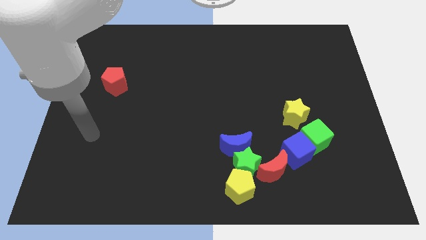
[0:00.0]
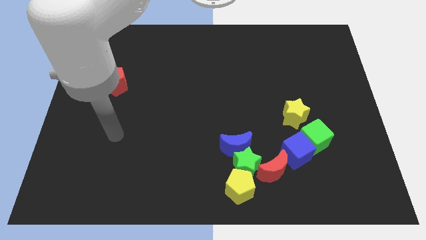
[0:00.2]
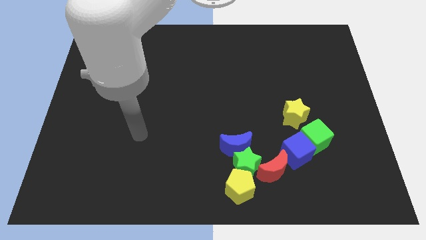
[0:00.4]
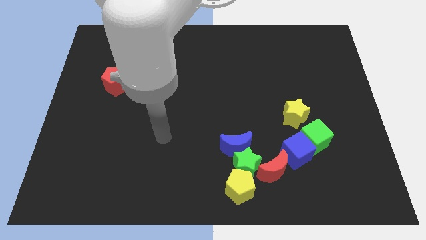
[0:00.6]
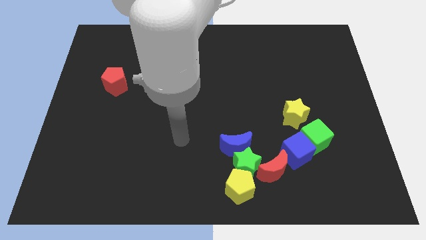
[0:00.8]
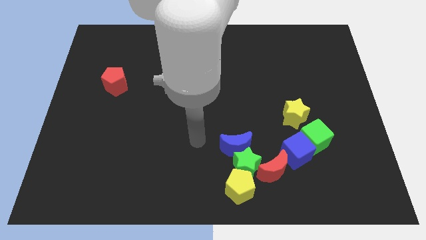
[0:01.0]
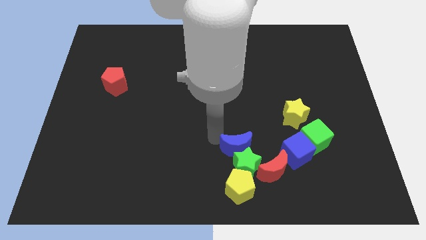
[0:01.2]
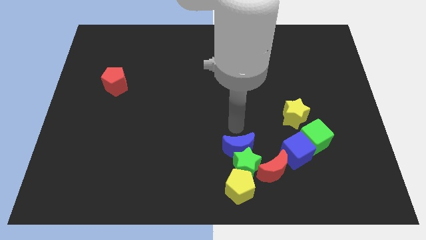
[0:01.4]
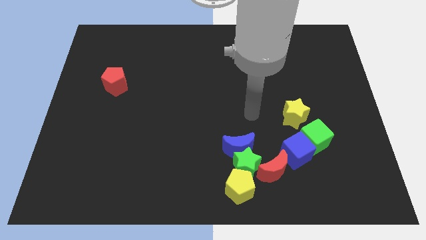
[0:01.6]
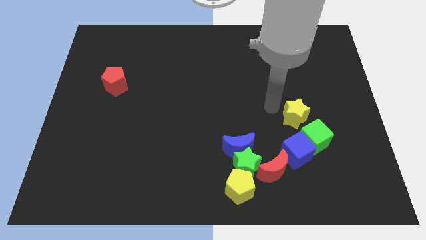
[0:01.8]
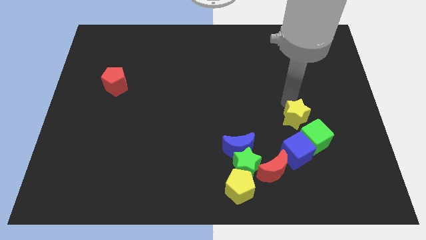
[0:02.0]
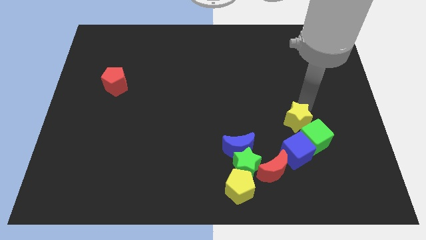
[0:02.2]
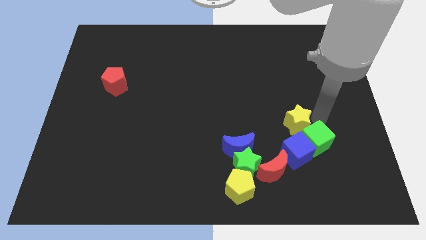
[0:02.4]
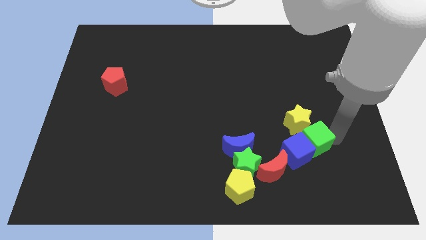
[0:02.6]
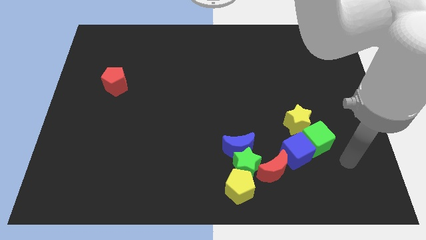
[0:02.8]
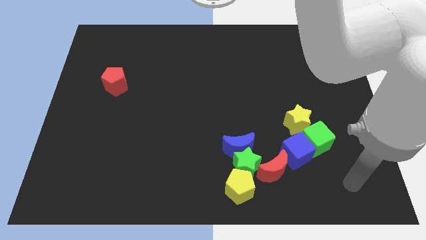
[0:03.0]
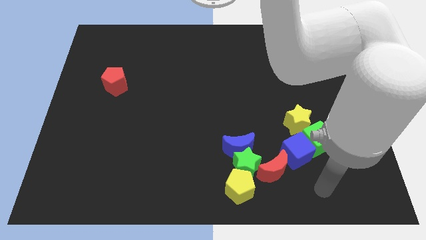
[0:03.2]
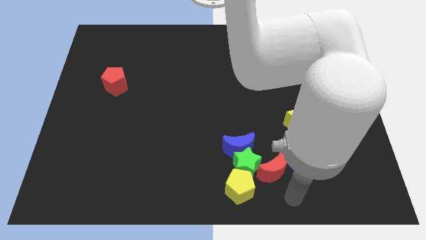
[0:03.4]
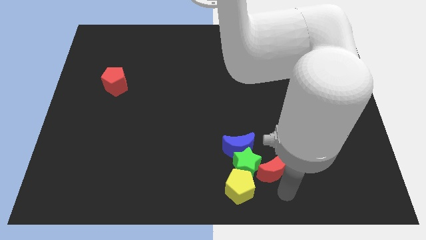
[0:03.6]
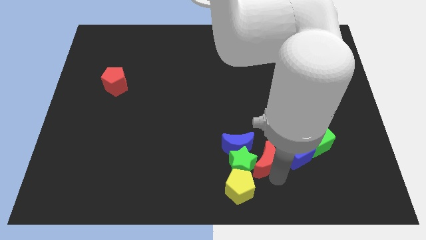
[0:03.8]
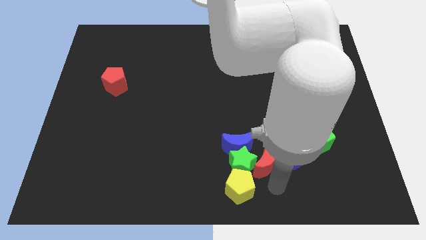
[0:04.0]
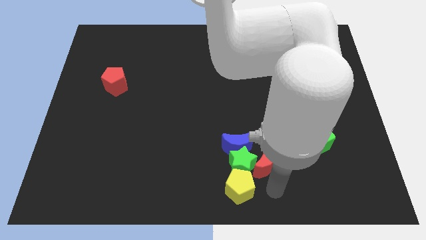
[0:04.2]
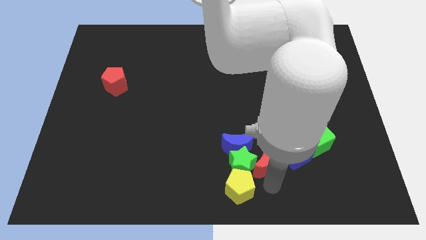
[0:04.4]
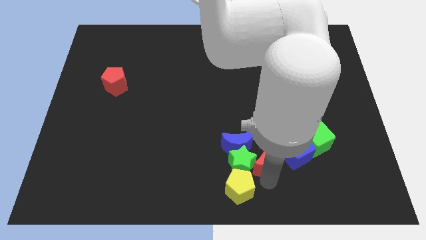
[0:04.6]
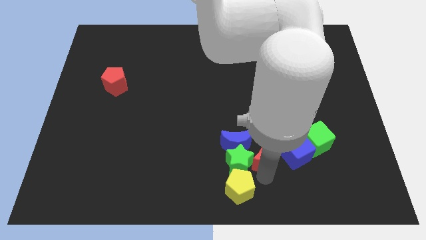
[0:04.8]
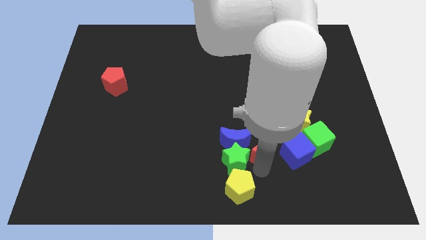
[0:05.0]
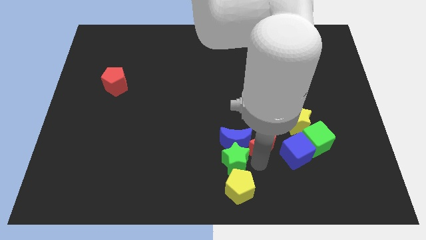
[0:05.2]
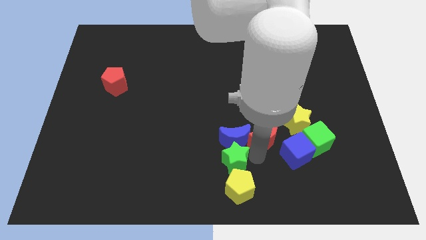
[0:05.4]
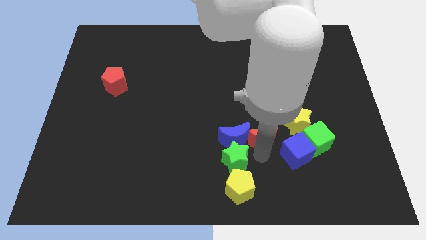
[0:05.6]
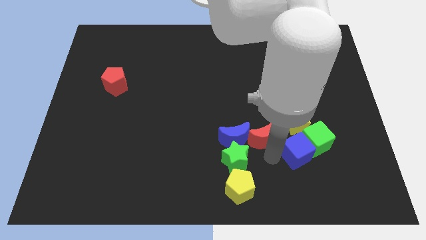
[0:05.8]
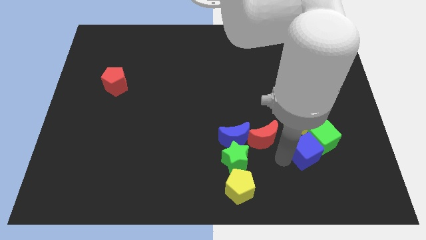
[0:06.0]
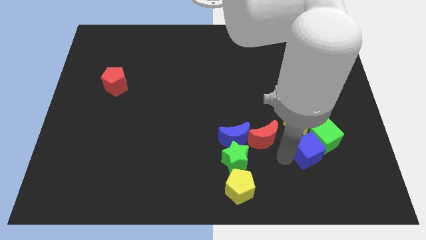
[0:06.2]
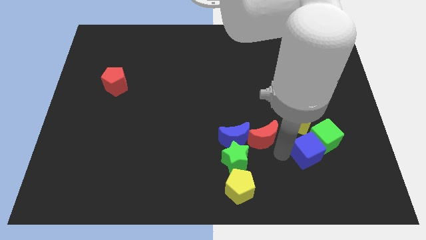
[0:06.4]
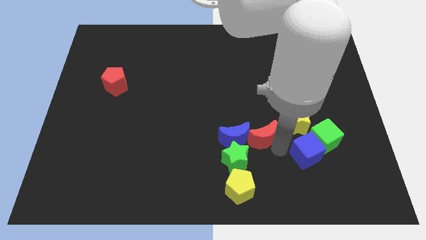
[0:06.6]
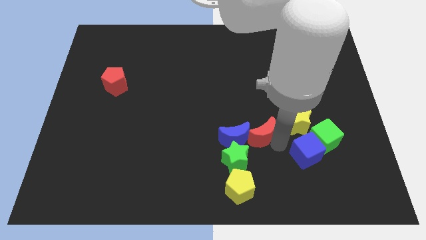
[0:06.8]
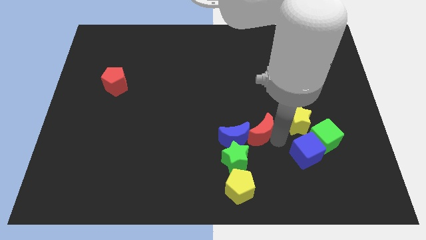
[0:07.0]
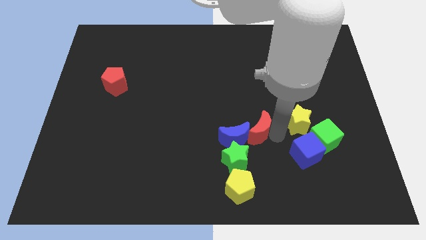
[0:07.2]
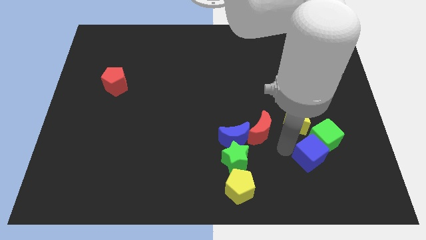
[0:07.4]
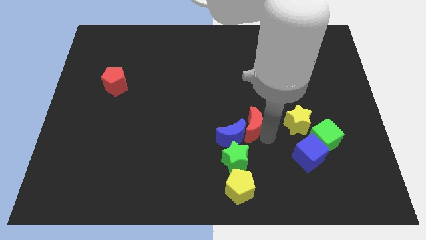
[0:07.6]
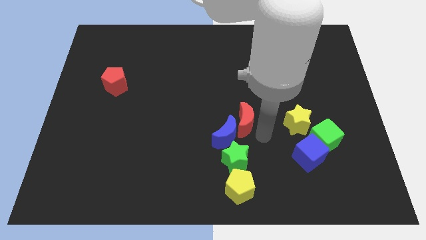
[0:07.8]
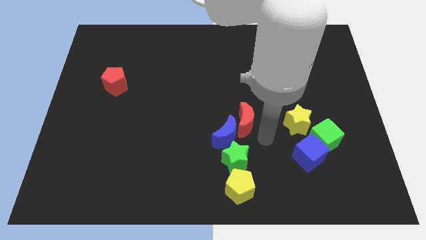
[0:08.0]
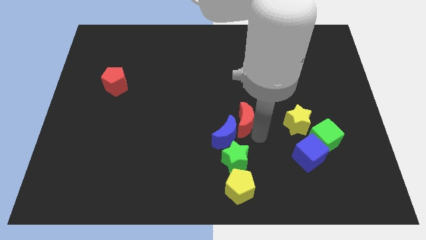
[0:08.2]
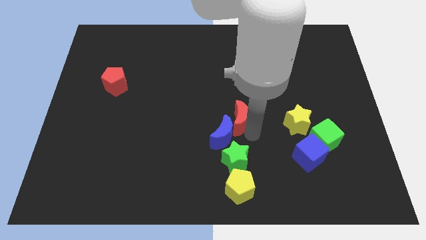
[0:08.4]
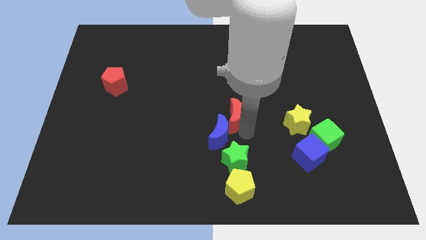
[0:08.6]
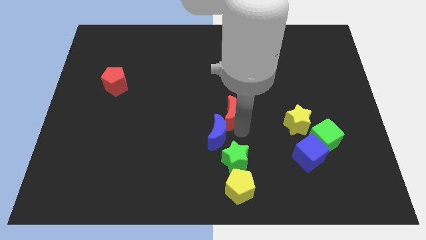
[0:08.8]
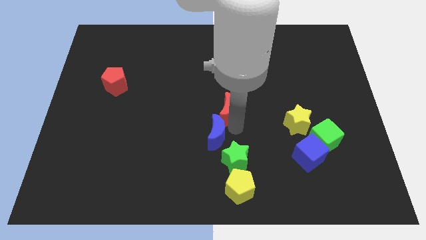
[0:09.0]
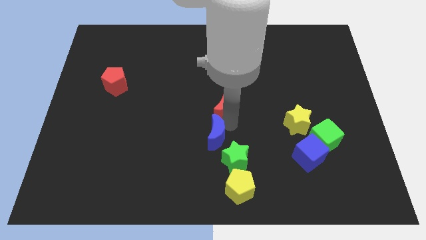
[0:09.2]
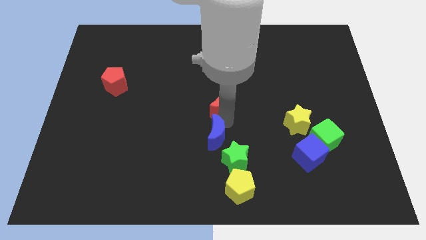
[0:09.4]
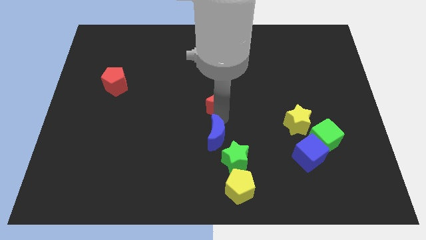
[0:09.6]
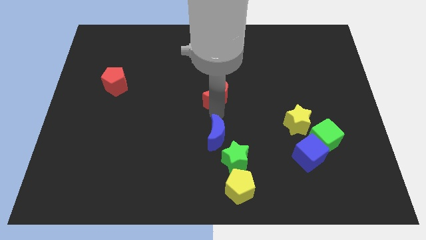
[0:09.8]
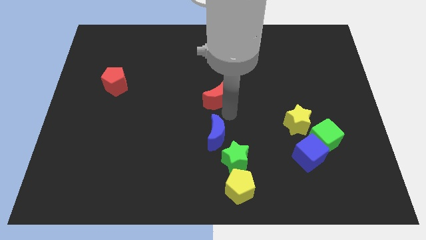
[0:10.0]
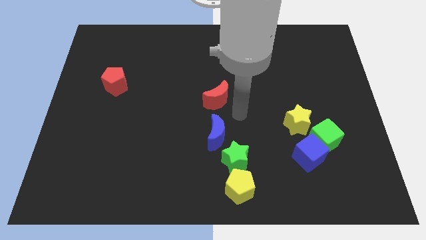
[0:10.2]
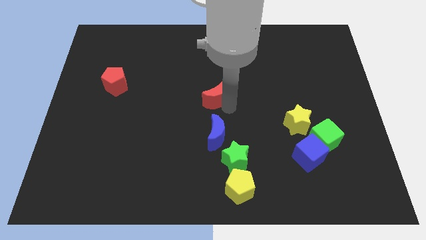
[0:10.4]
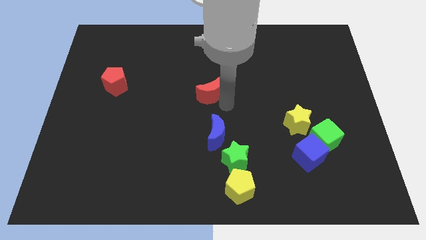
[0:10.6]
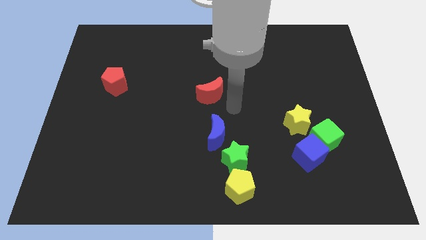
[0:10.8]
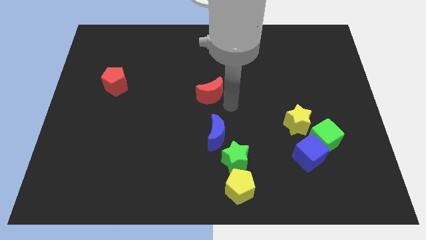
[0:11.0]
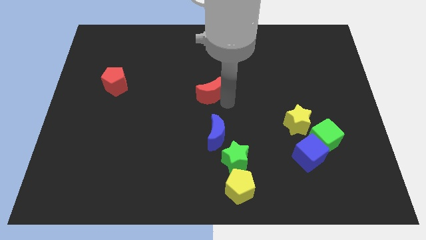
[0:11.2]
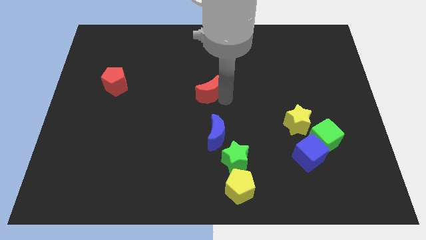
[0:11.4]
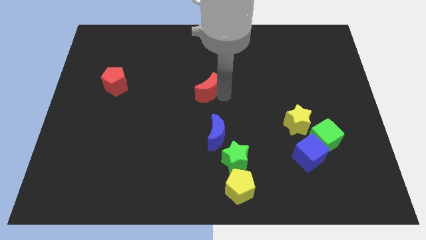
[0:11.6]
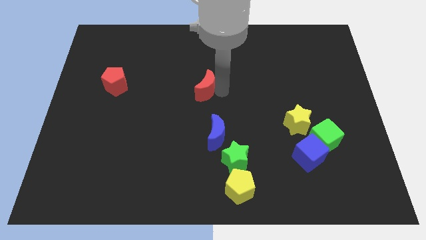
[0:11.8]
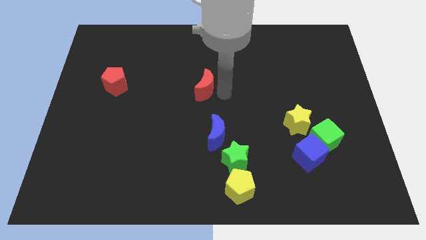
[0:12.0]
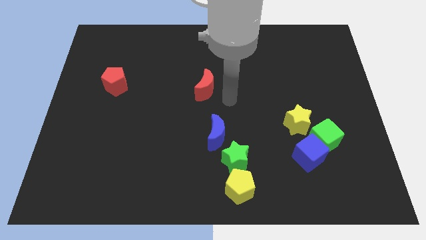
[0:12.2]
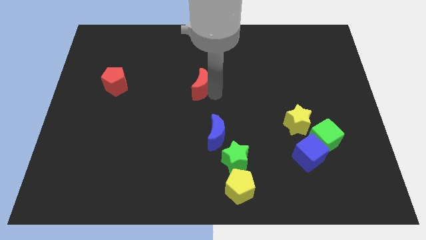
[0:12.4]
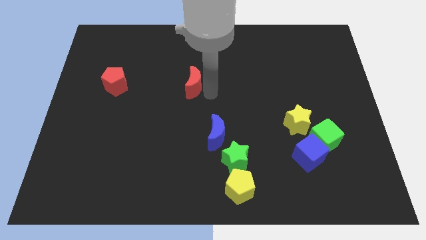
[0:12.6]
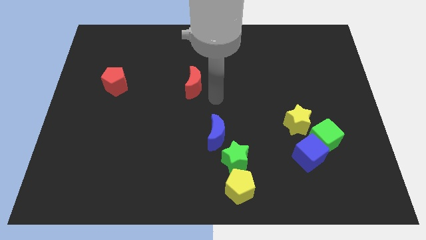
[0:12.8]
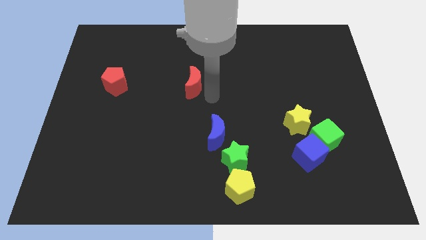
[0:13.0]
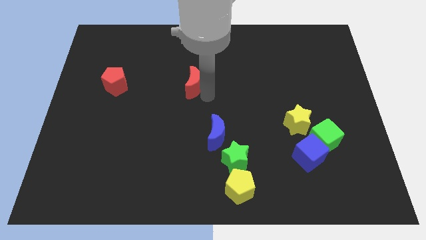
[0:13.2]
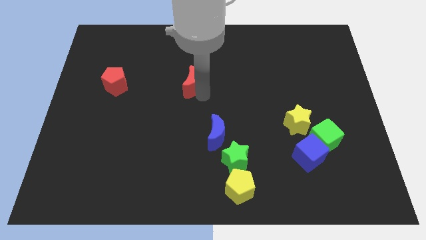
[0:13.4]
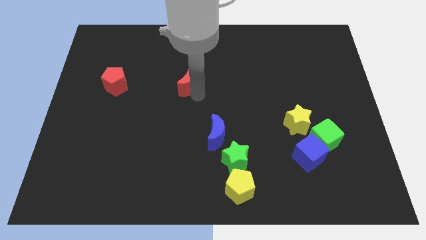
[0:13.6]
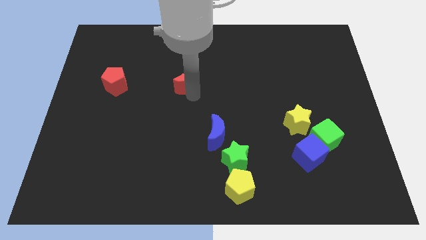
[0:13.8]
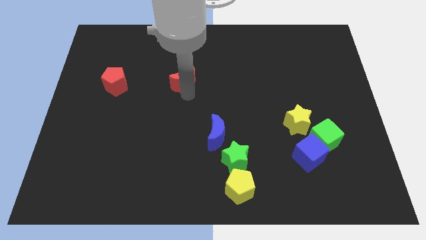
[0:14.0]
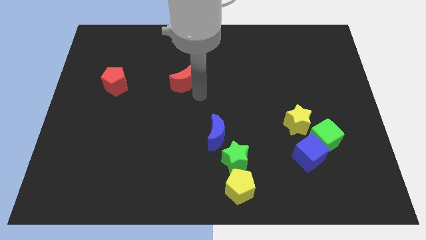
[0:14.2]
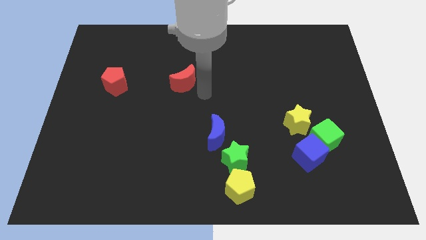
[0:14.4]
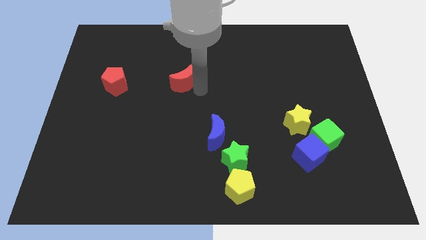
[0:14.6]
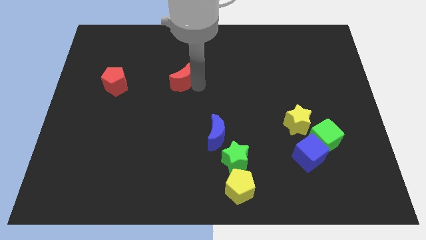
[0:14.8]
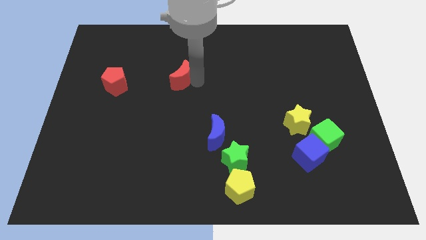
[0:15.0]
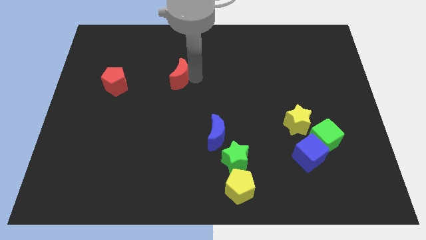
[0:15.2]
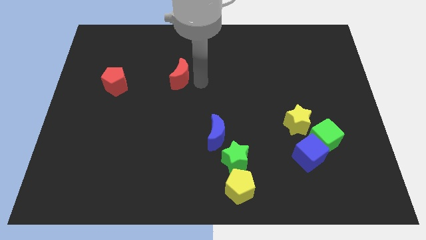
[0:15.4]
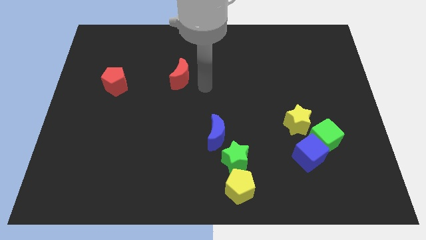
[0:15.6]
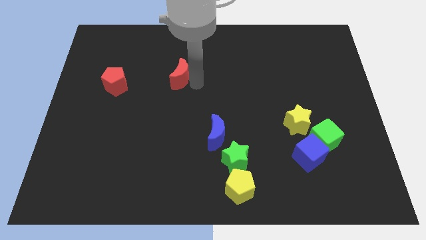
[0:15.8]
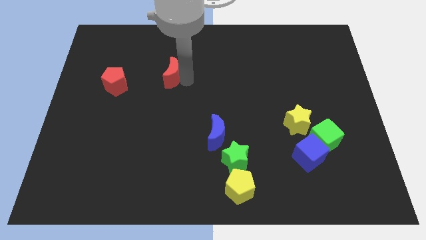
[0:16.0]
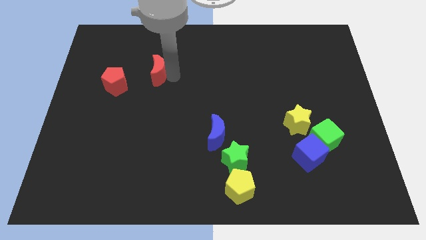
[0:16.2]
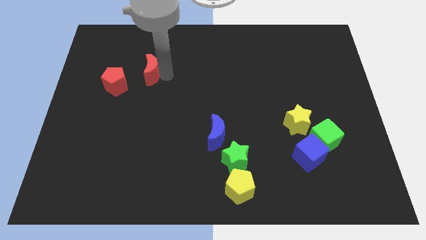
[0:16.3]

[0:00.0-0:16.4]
move the red moon to the top right of the red pentagon
